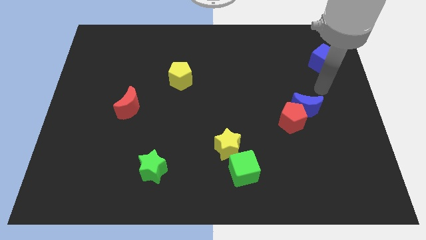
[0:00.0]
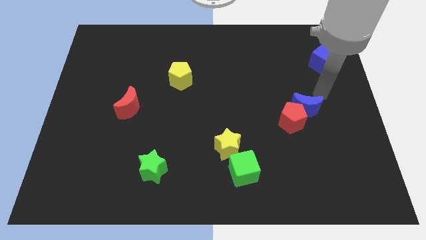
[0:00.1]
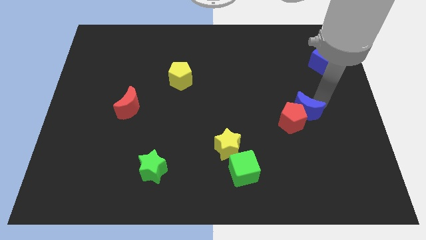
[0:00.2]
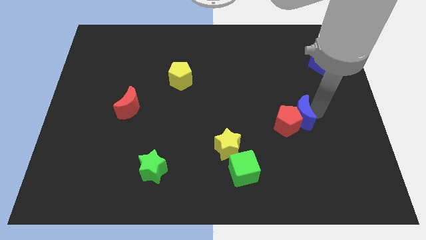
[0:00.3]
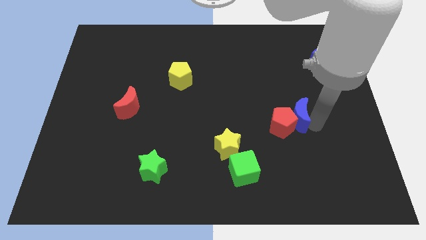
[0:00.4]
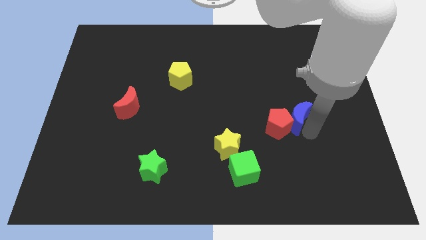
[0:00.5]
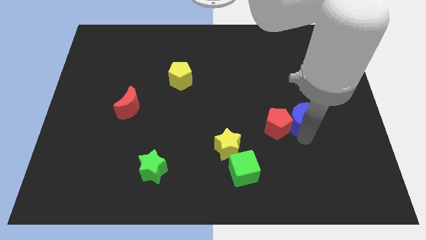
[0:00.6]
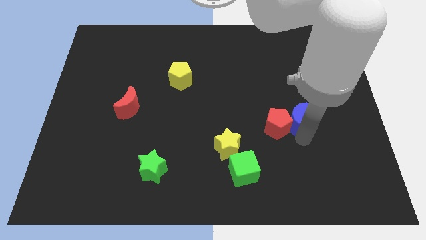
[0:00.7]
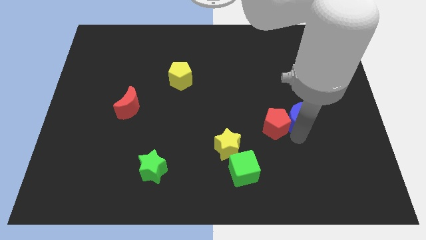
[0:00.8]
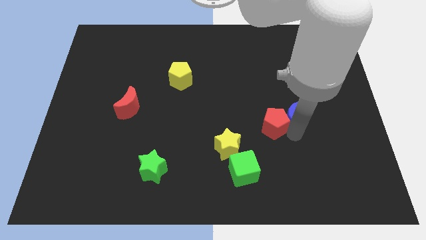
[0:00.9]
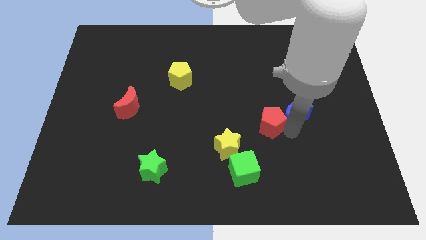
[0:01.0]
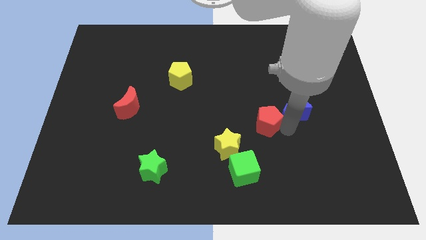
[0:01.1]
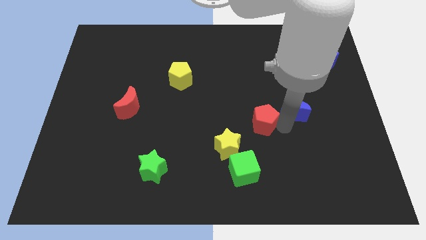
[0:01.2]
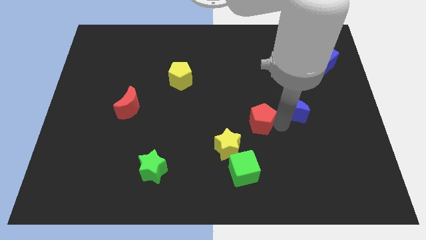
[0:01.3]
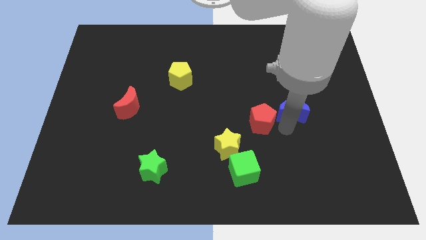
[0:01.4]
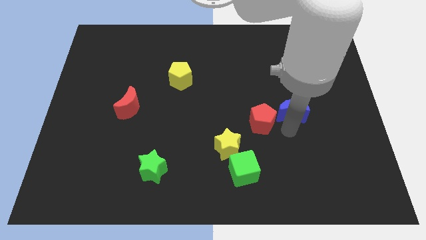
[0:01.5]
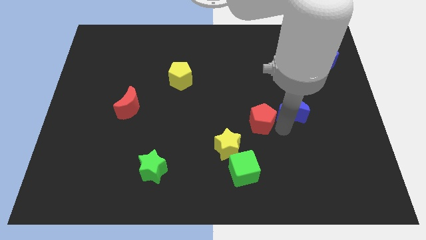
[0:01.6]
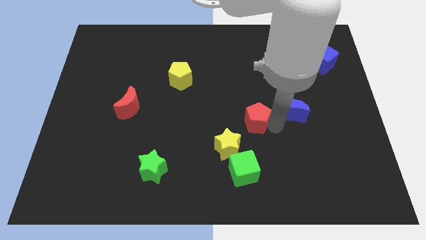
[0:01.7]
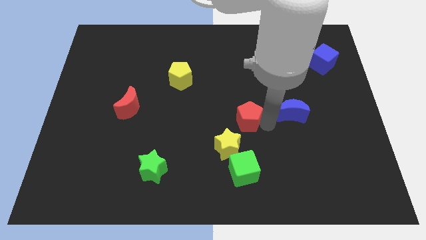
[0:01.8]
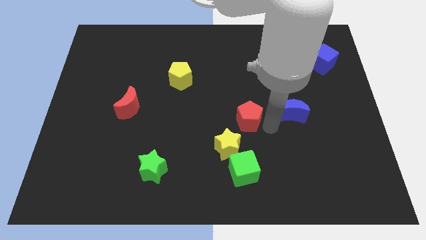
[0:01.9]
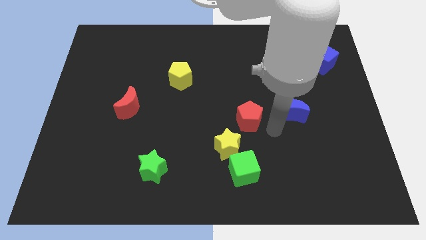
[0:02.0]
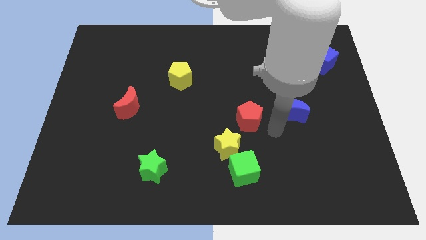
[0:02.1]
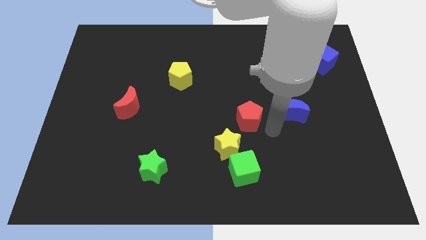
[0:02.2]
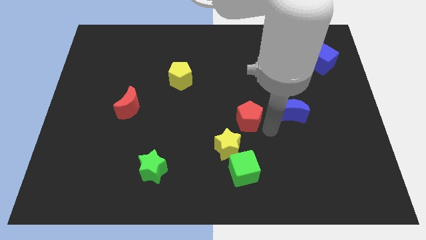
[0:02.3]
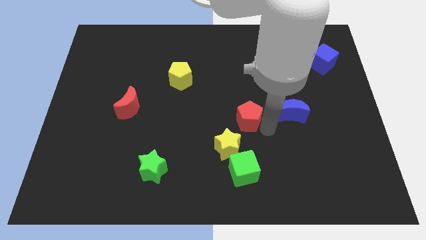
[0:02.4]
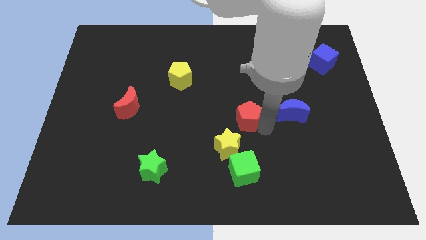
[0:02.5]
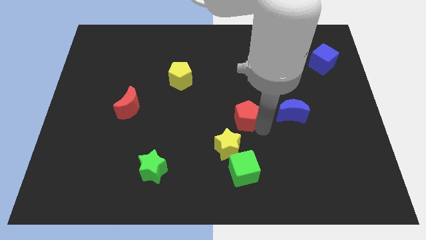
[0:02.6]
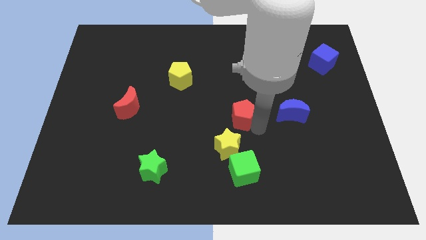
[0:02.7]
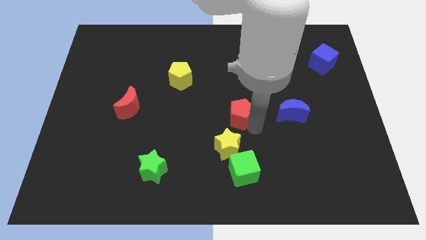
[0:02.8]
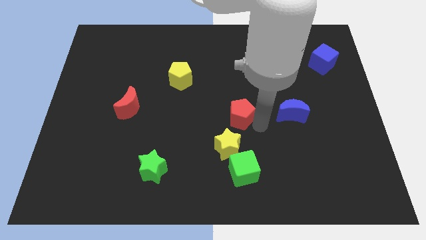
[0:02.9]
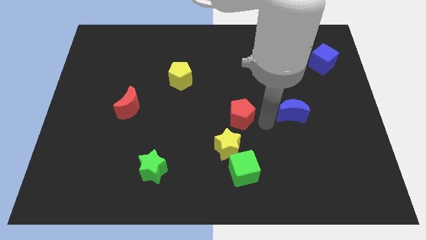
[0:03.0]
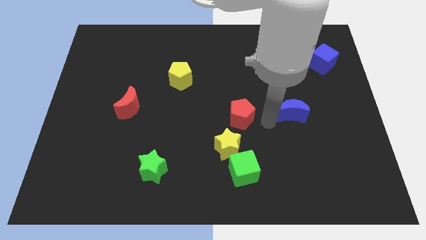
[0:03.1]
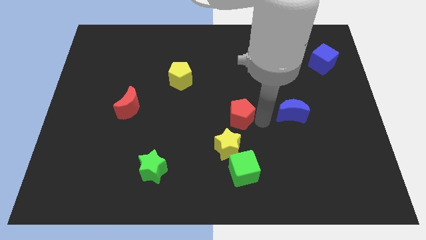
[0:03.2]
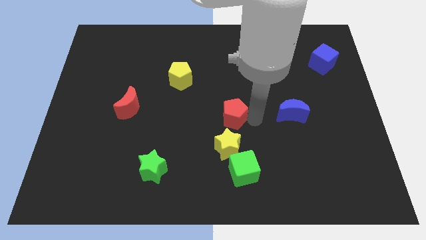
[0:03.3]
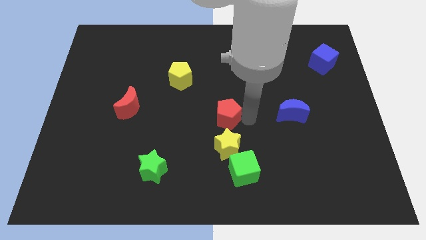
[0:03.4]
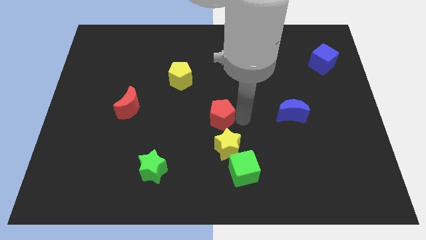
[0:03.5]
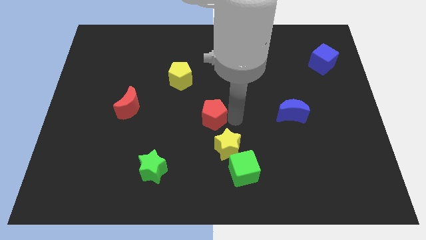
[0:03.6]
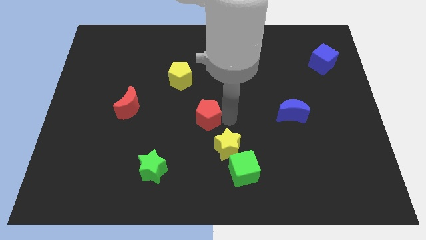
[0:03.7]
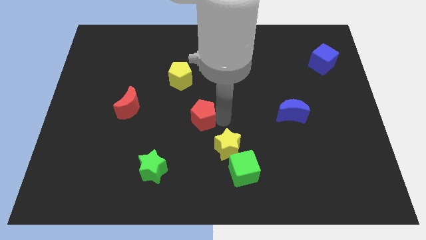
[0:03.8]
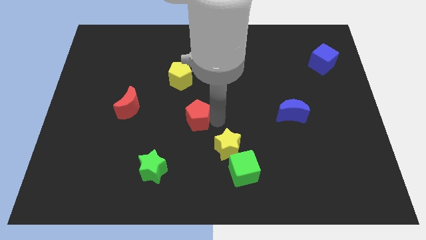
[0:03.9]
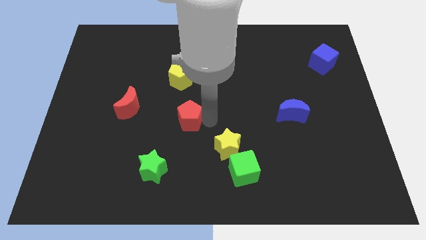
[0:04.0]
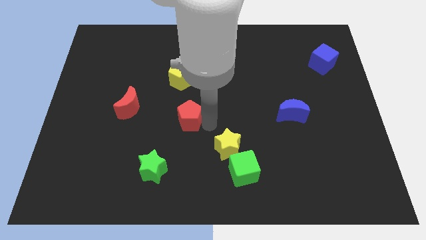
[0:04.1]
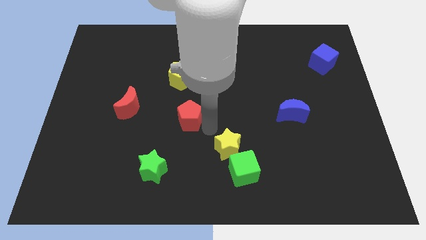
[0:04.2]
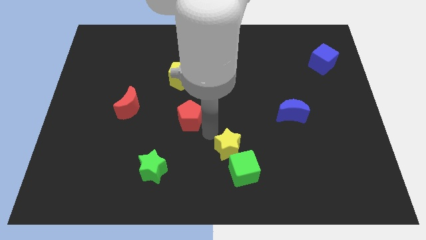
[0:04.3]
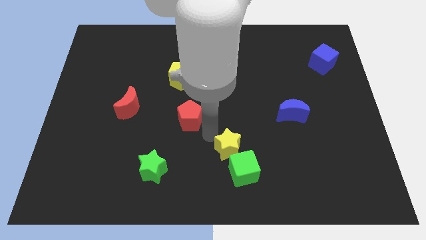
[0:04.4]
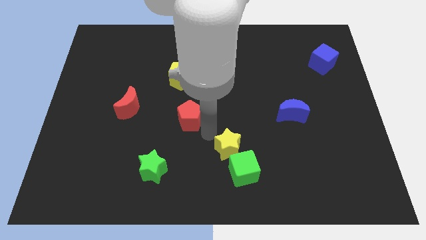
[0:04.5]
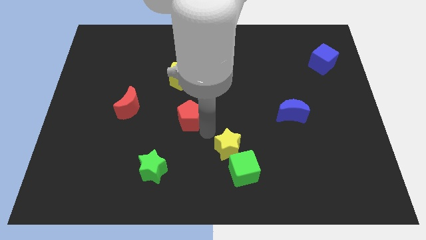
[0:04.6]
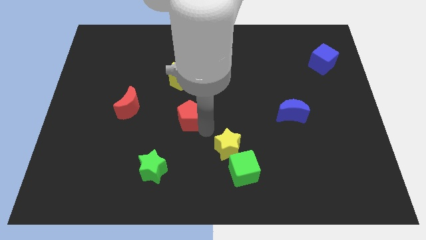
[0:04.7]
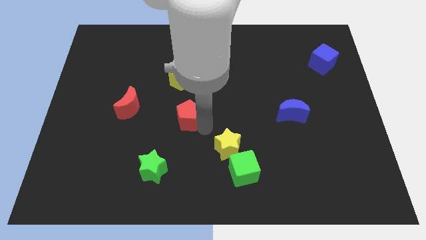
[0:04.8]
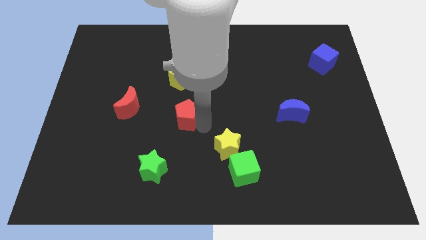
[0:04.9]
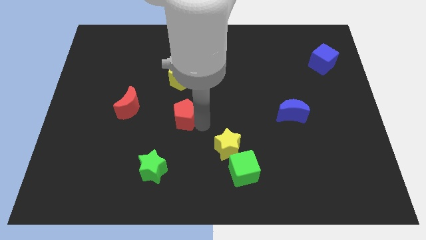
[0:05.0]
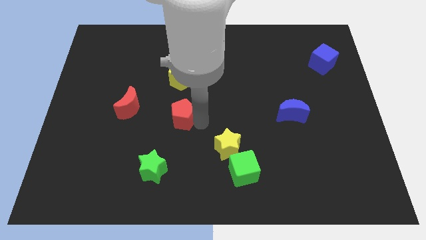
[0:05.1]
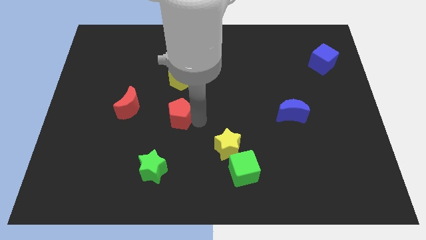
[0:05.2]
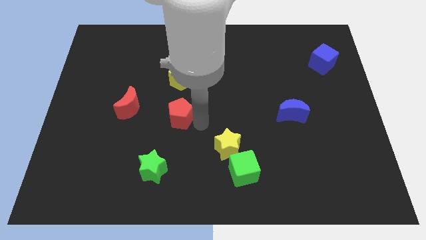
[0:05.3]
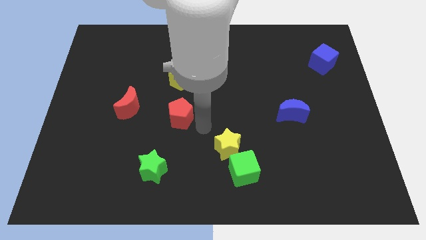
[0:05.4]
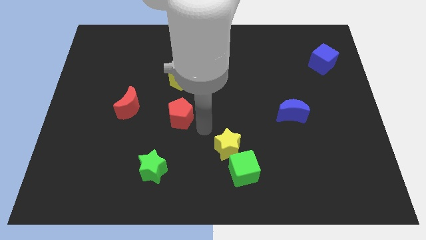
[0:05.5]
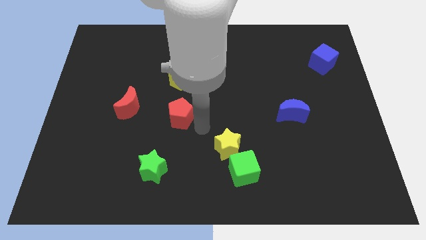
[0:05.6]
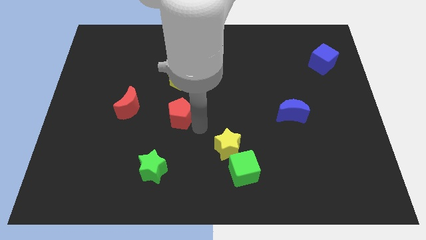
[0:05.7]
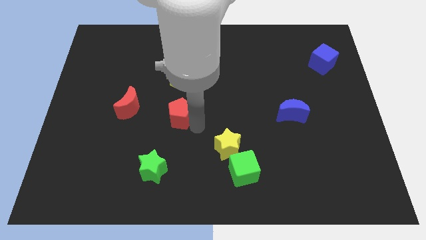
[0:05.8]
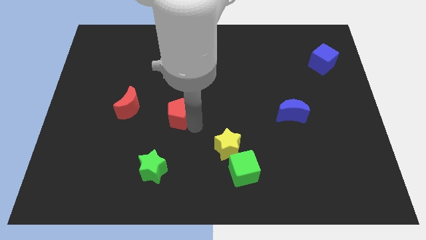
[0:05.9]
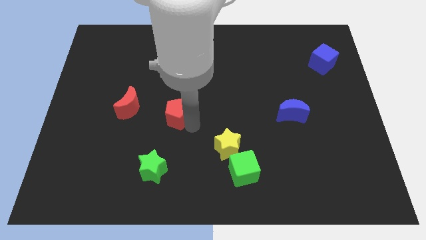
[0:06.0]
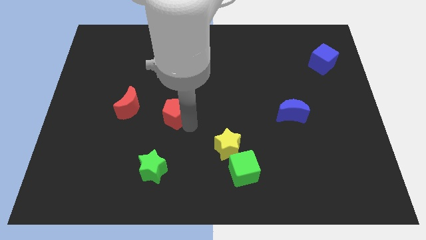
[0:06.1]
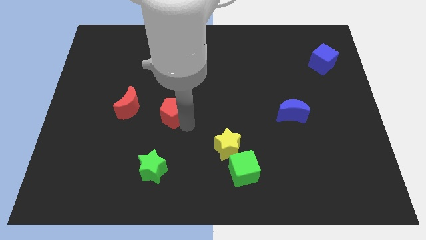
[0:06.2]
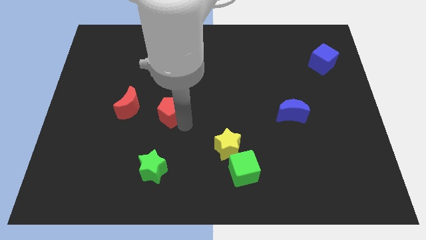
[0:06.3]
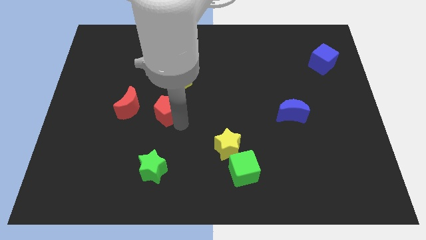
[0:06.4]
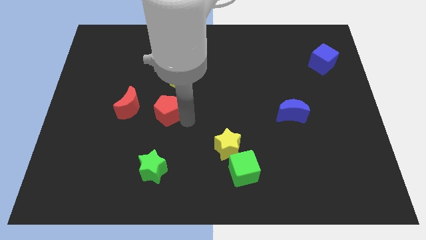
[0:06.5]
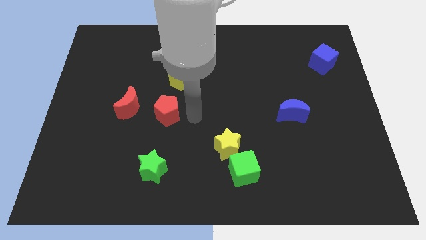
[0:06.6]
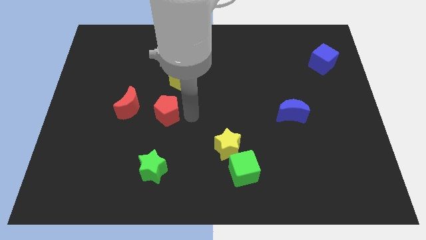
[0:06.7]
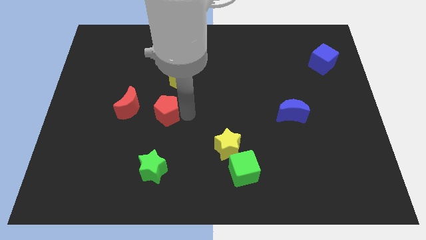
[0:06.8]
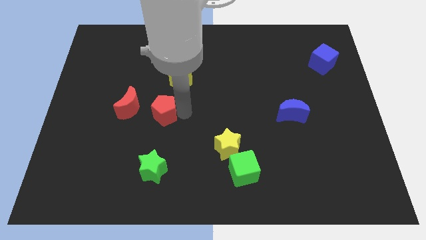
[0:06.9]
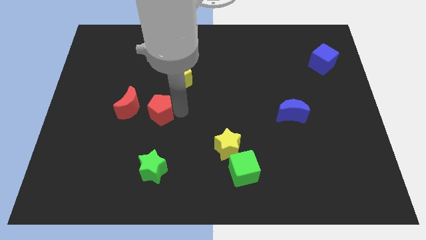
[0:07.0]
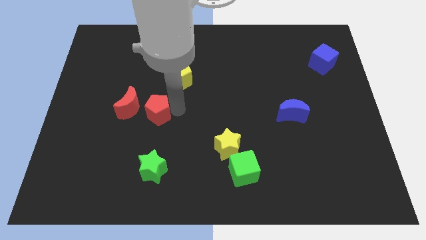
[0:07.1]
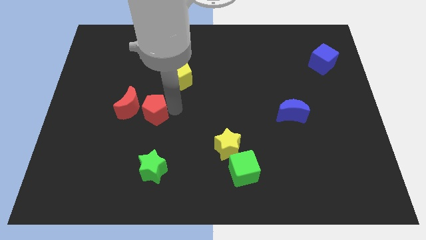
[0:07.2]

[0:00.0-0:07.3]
put the red pentagon towards the red moon

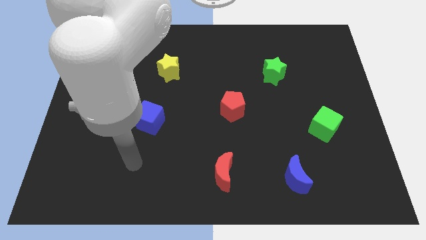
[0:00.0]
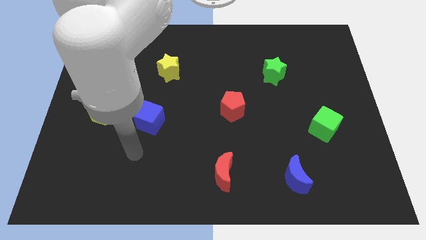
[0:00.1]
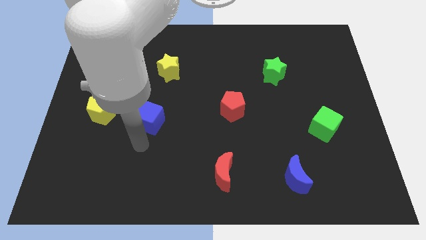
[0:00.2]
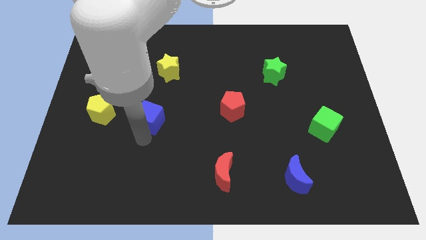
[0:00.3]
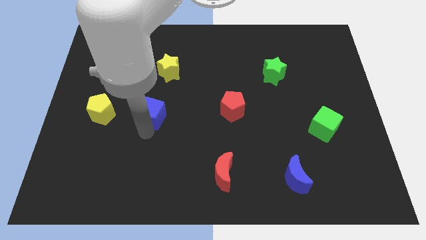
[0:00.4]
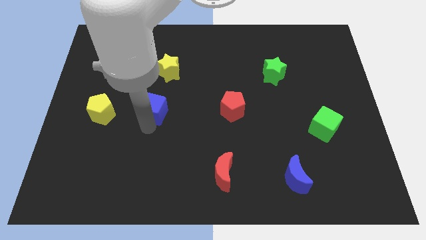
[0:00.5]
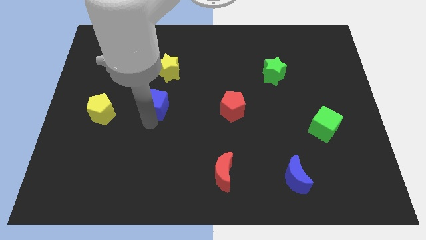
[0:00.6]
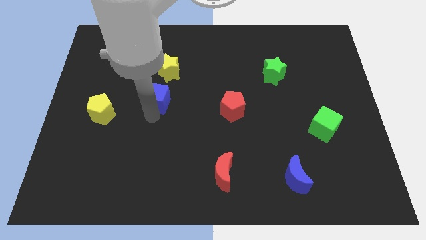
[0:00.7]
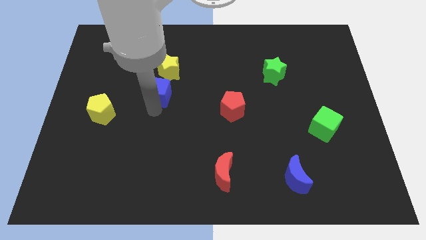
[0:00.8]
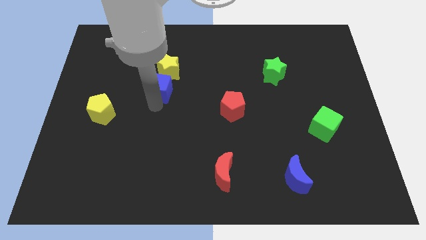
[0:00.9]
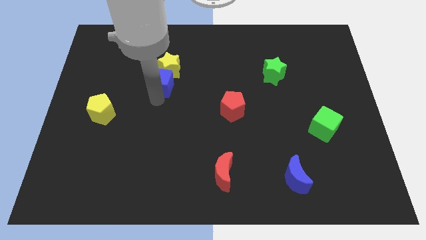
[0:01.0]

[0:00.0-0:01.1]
slide the blue cube to the yellow star
